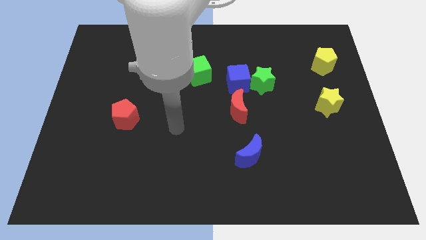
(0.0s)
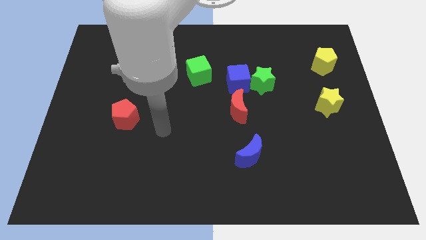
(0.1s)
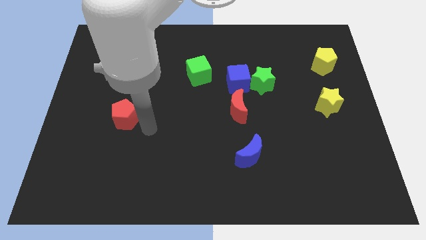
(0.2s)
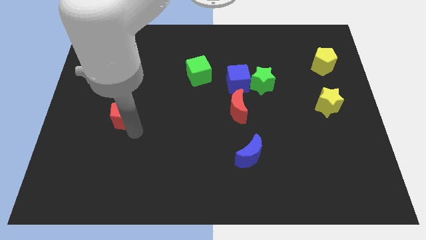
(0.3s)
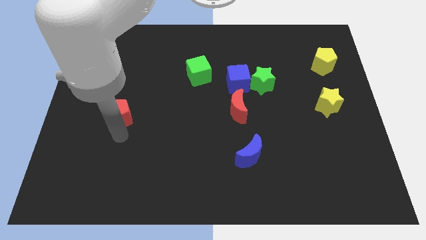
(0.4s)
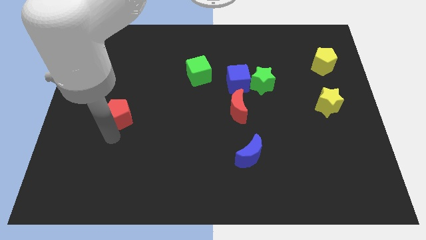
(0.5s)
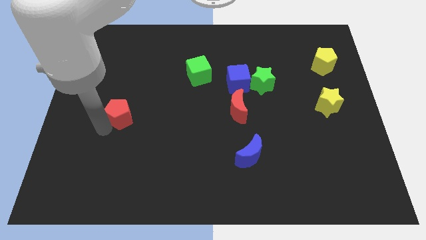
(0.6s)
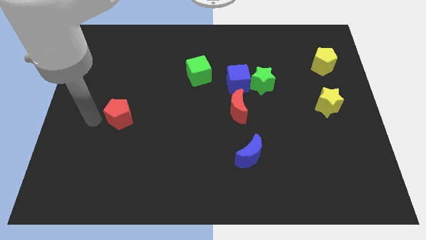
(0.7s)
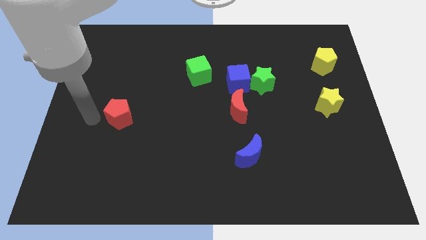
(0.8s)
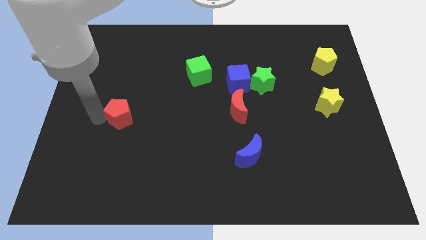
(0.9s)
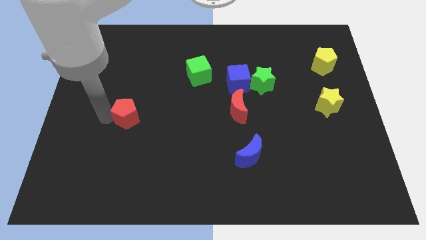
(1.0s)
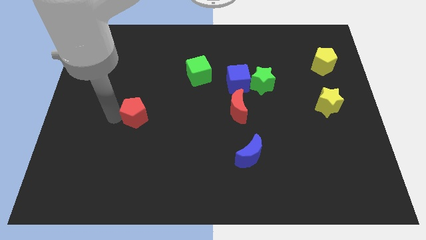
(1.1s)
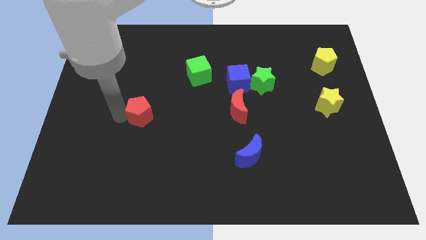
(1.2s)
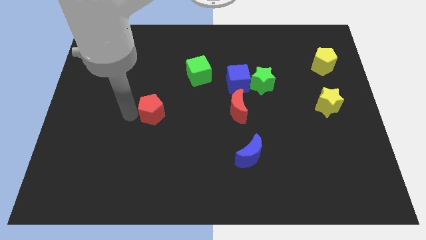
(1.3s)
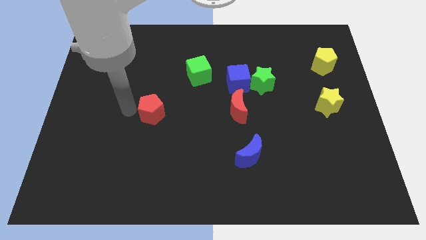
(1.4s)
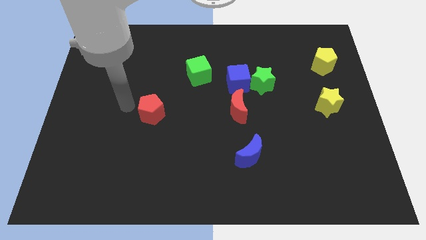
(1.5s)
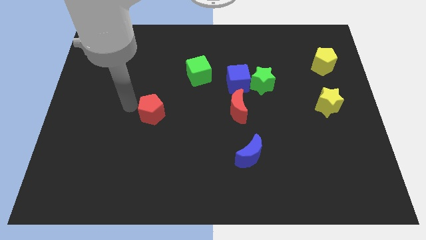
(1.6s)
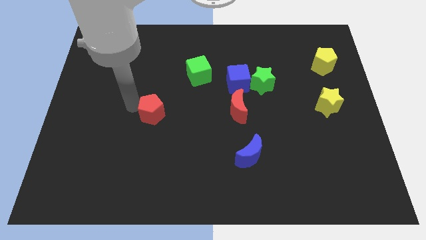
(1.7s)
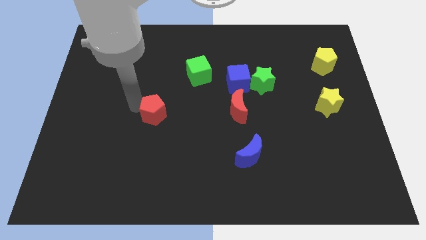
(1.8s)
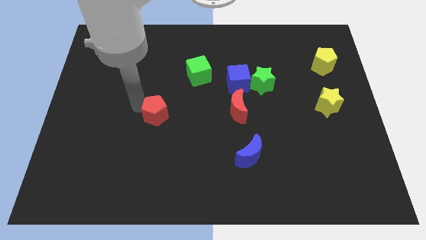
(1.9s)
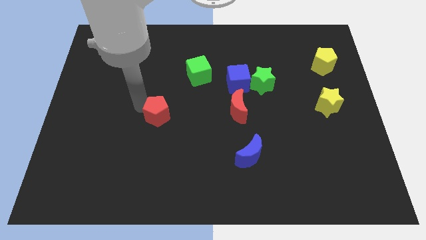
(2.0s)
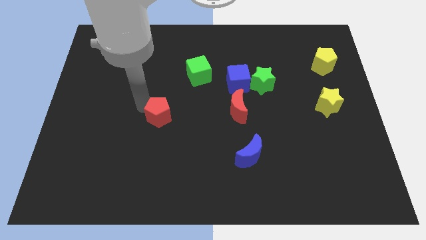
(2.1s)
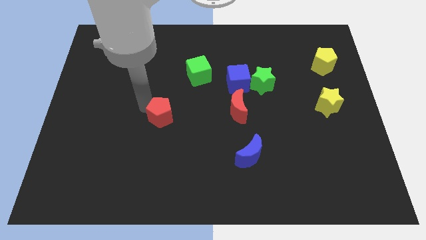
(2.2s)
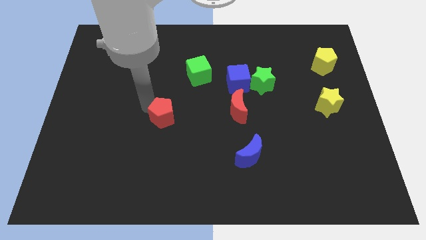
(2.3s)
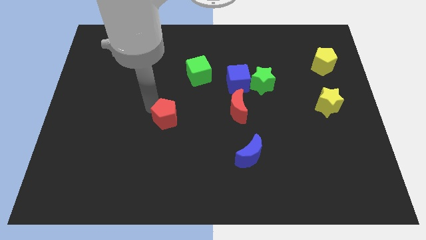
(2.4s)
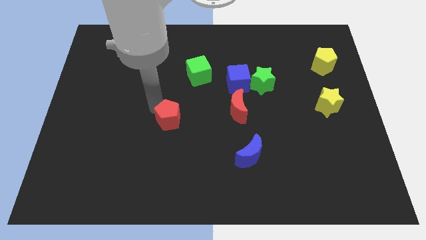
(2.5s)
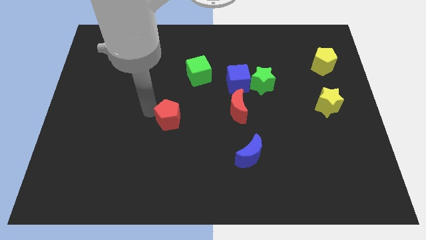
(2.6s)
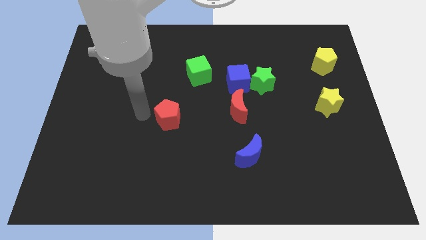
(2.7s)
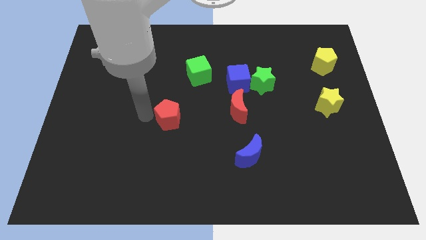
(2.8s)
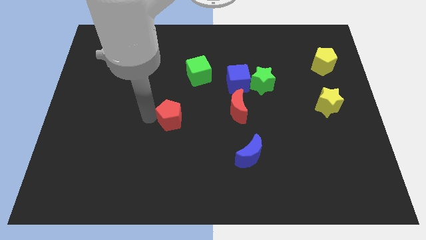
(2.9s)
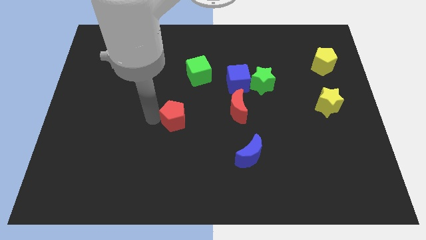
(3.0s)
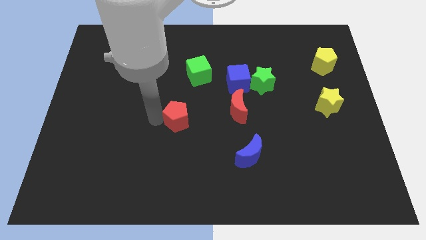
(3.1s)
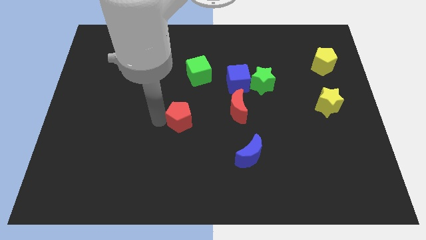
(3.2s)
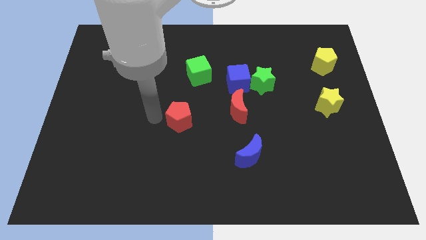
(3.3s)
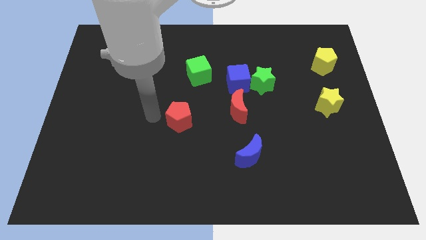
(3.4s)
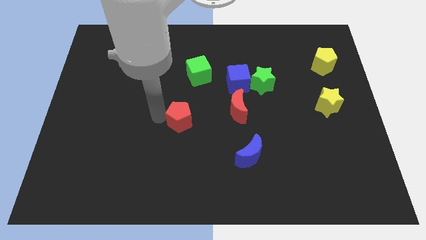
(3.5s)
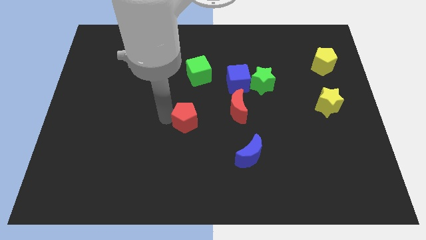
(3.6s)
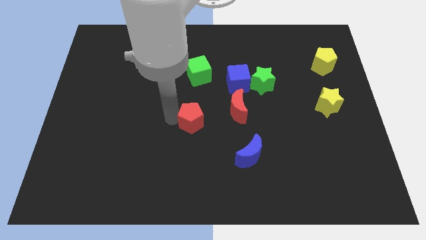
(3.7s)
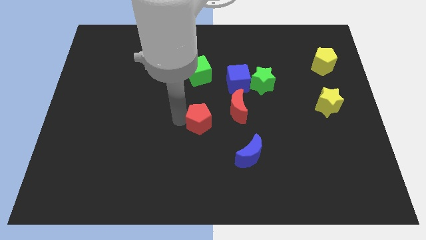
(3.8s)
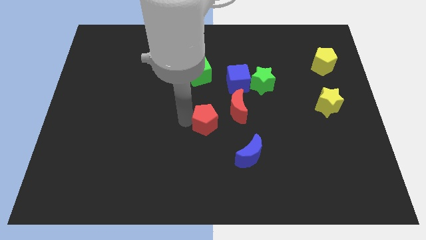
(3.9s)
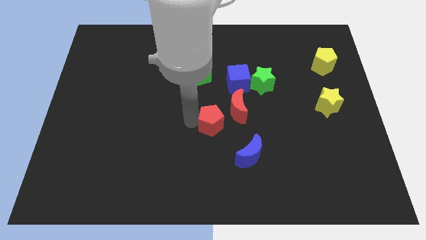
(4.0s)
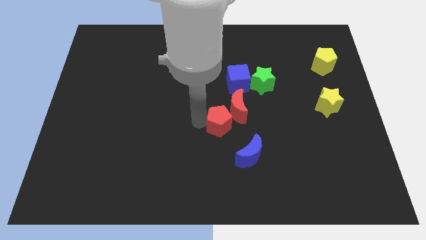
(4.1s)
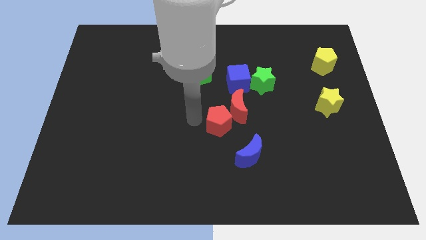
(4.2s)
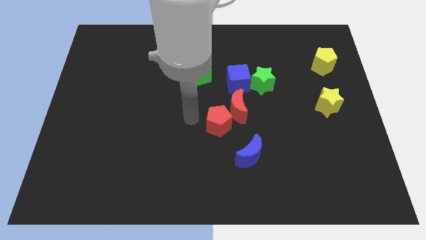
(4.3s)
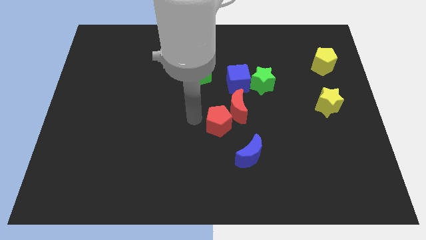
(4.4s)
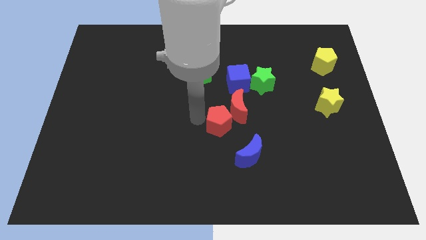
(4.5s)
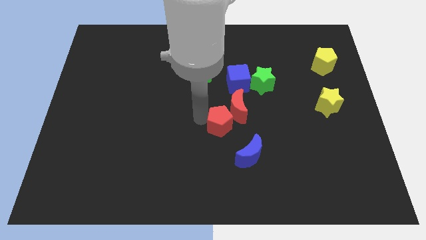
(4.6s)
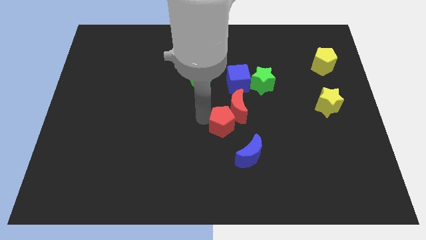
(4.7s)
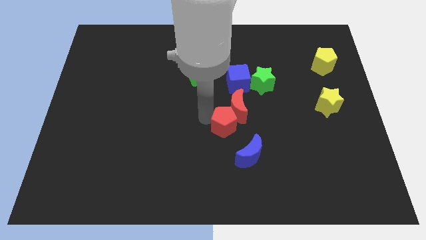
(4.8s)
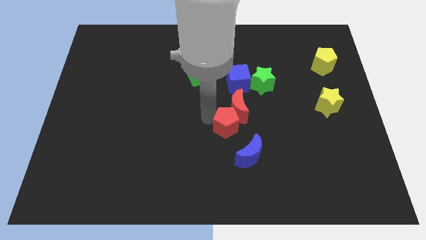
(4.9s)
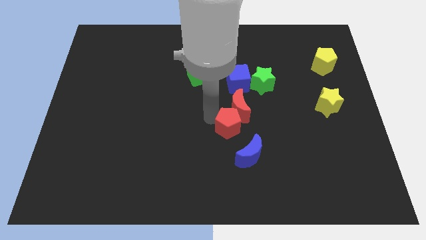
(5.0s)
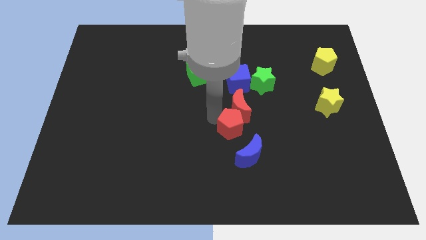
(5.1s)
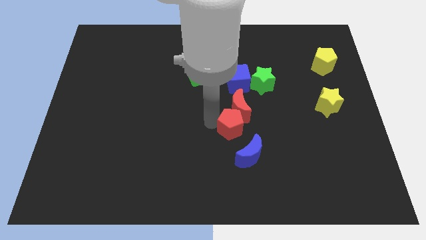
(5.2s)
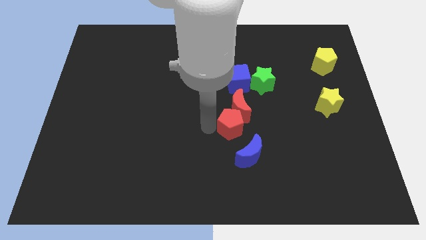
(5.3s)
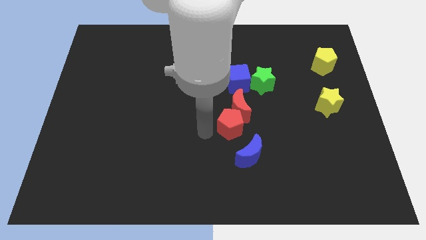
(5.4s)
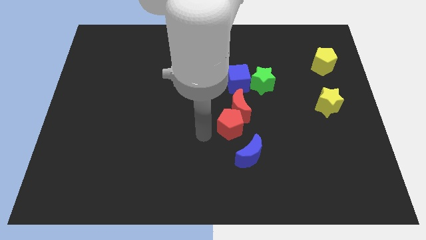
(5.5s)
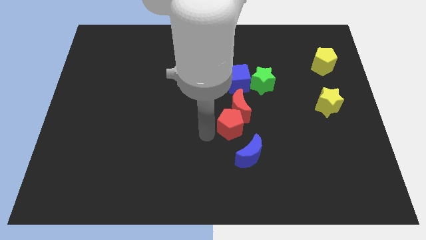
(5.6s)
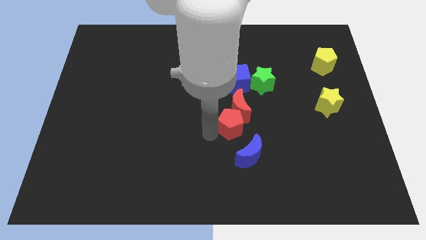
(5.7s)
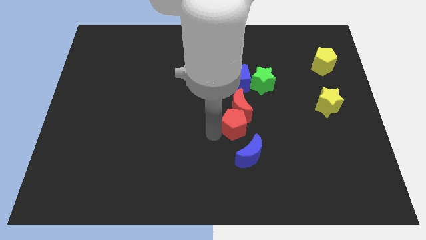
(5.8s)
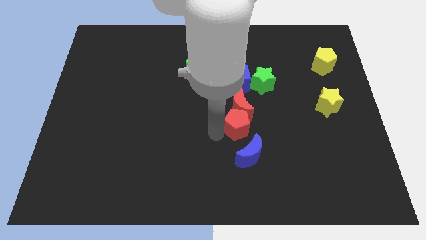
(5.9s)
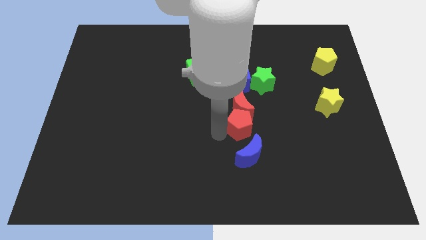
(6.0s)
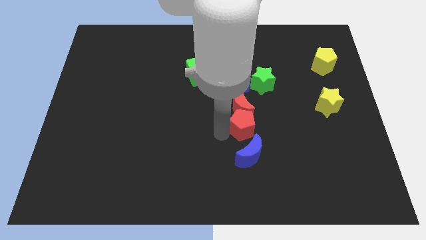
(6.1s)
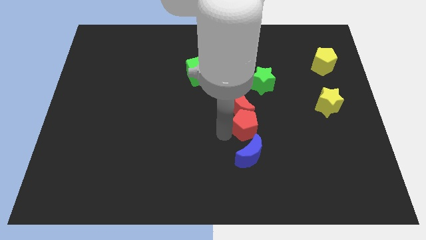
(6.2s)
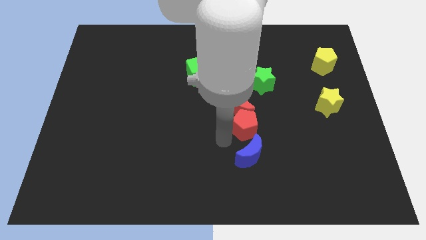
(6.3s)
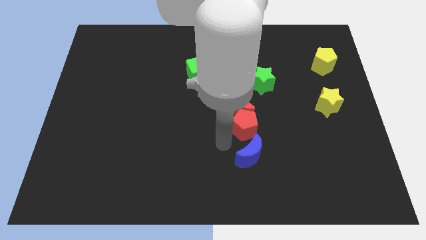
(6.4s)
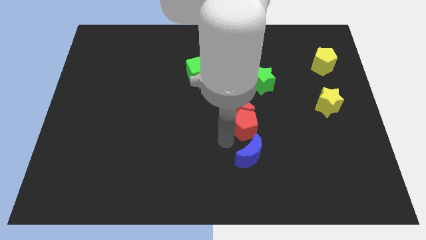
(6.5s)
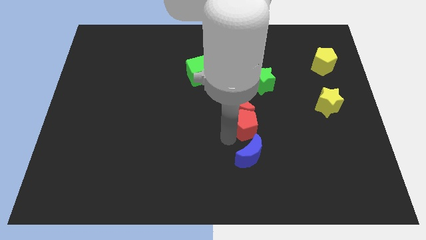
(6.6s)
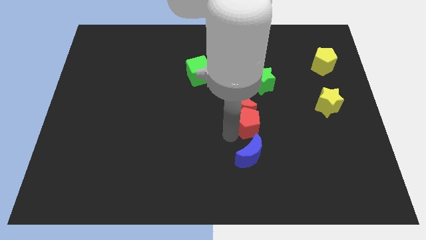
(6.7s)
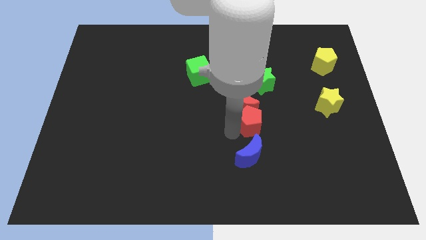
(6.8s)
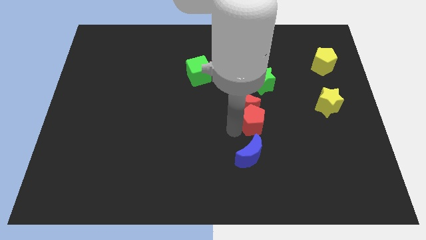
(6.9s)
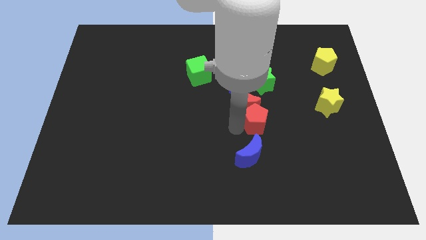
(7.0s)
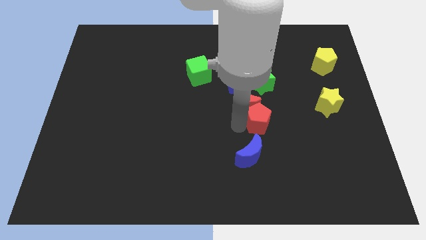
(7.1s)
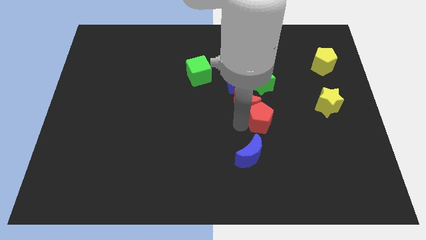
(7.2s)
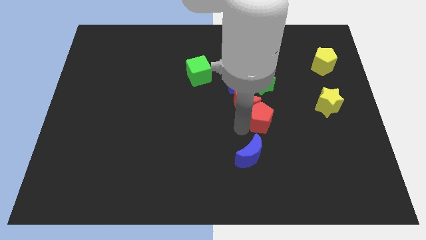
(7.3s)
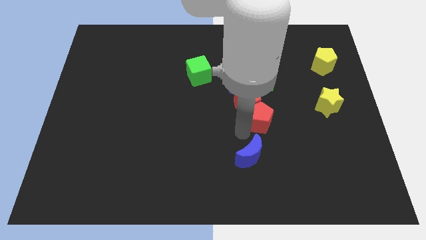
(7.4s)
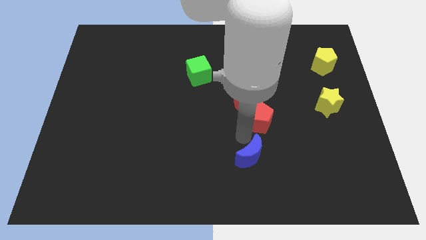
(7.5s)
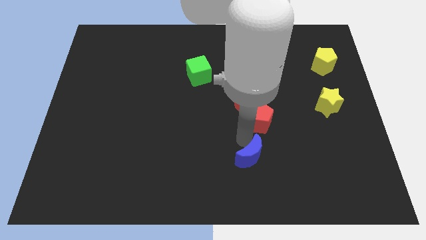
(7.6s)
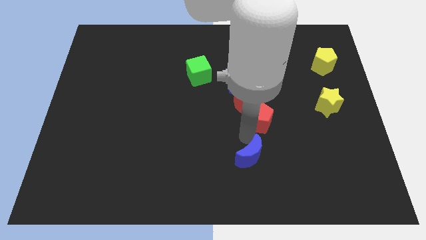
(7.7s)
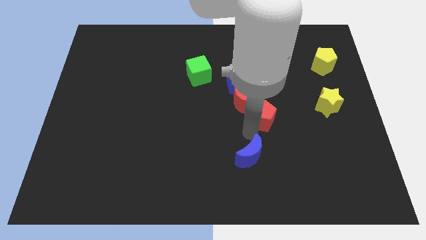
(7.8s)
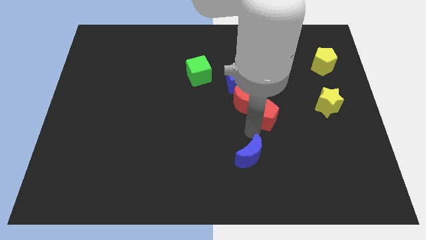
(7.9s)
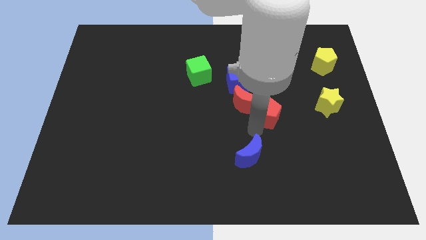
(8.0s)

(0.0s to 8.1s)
put the red pentagon diagonally down and to the right of the blue cube
